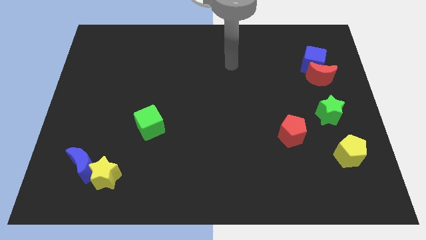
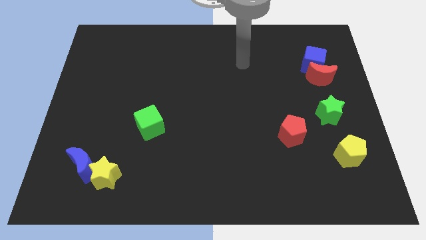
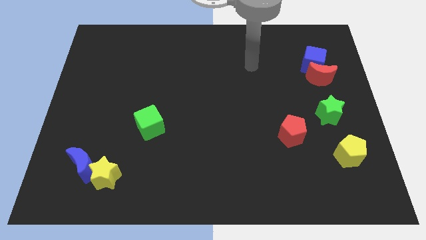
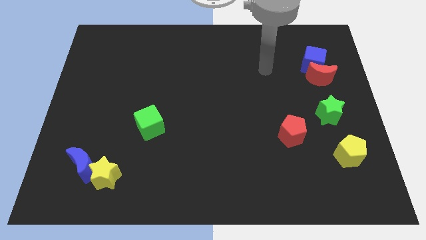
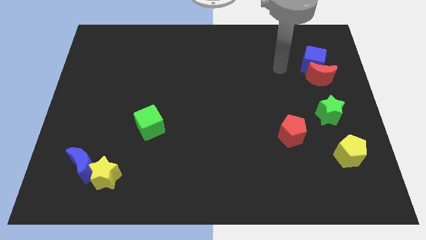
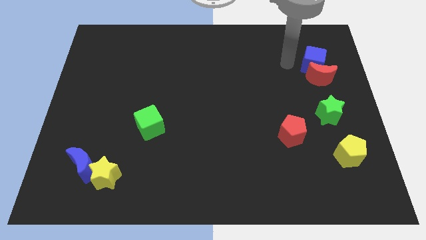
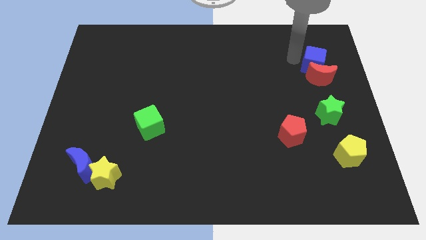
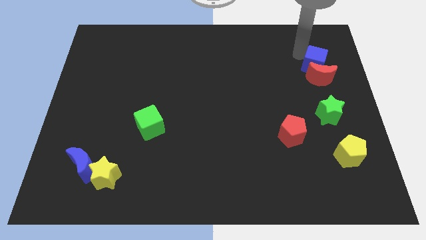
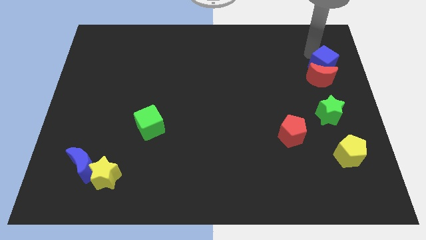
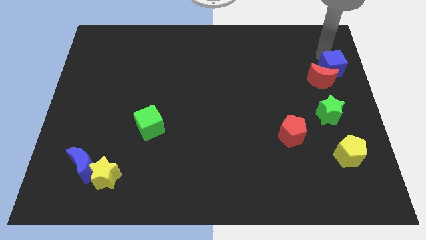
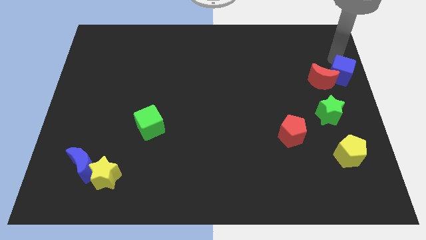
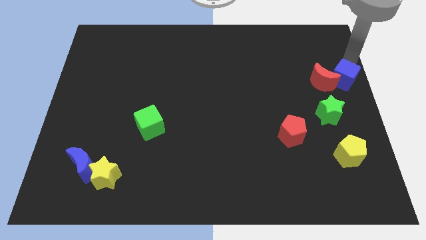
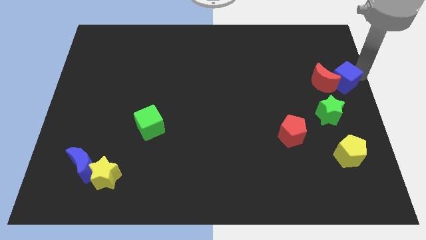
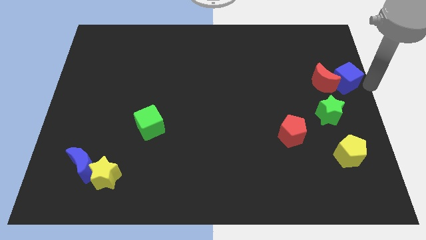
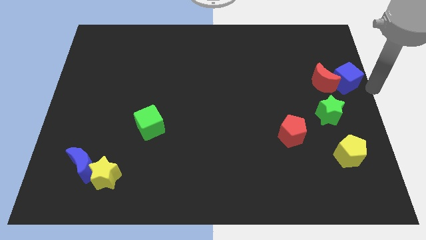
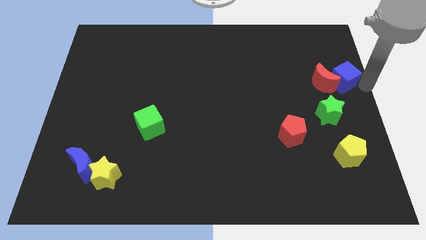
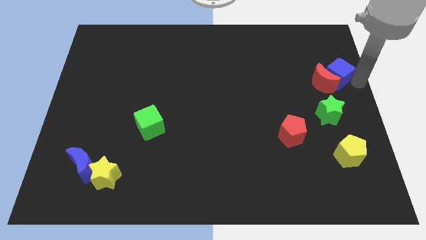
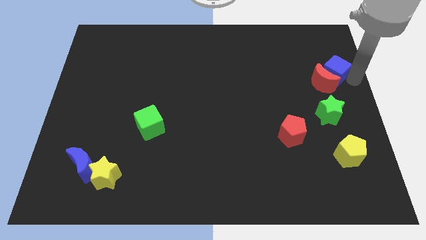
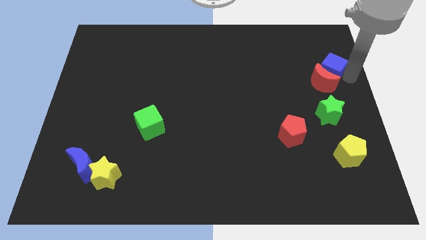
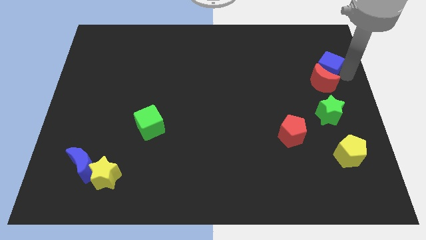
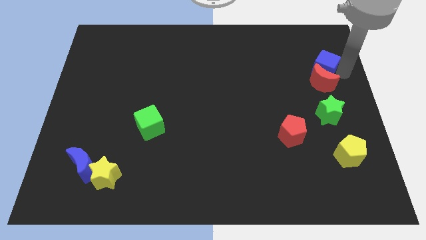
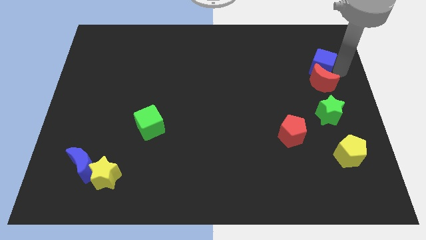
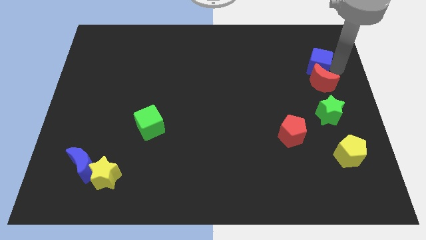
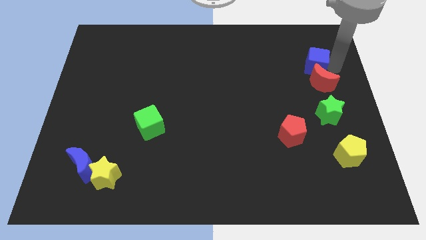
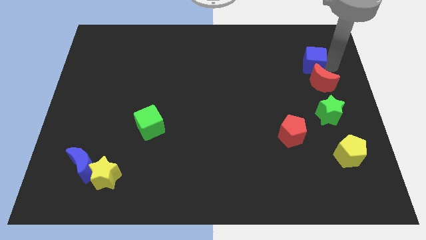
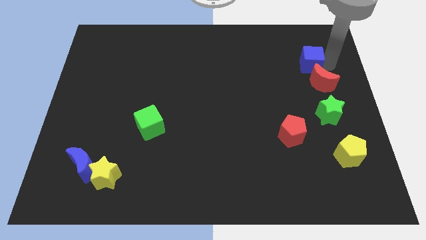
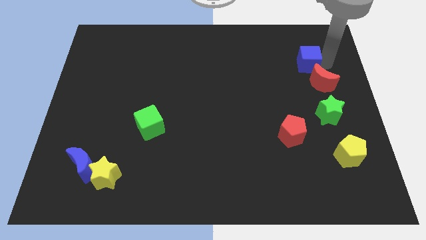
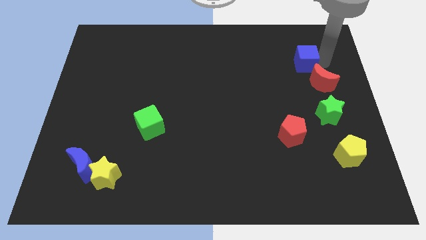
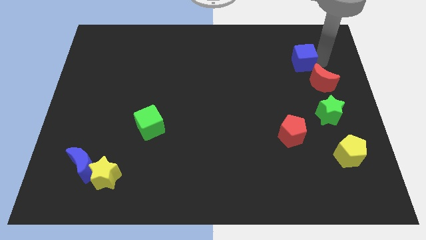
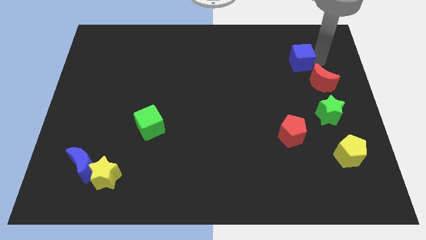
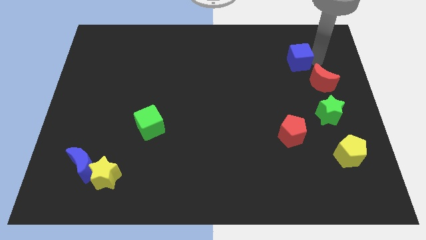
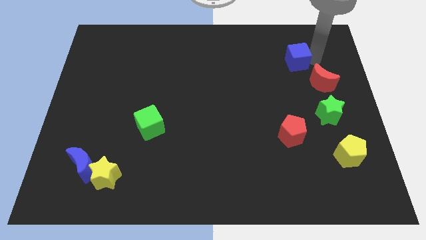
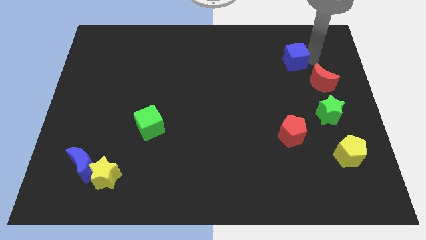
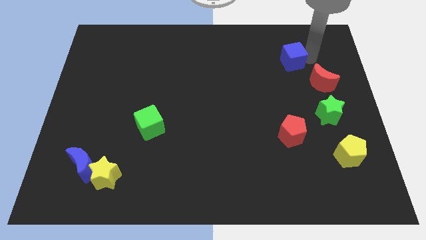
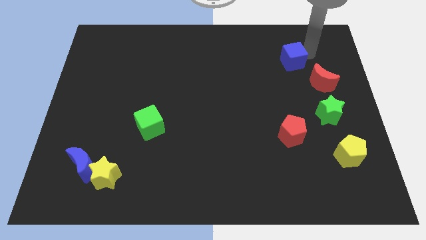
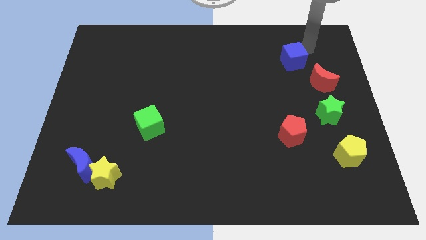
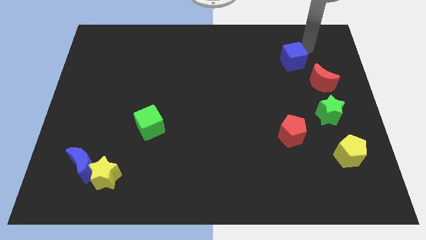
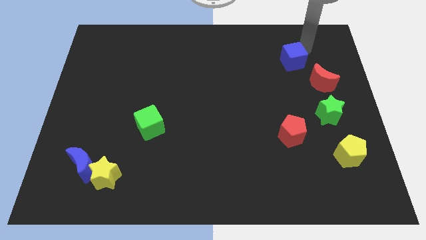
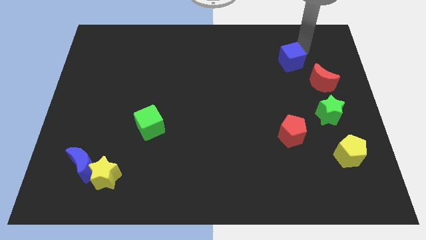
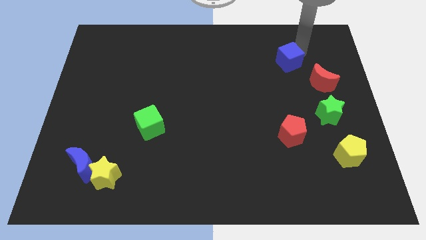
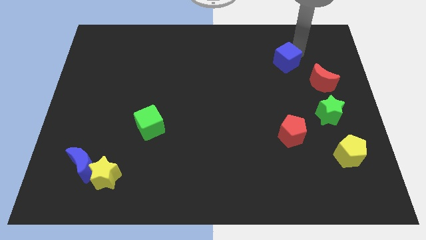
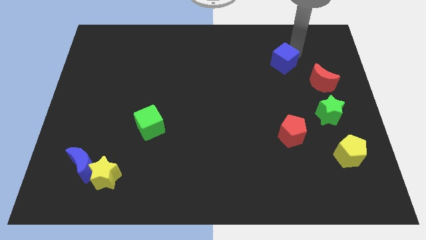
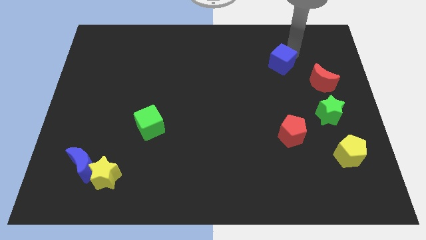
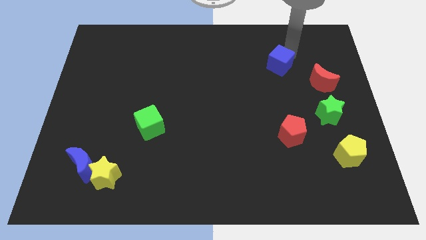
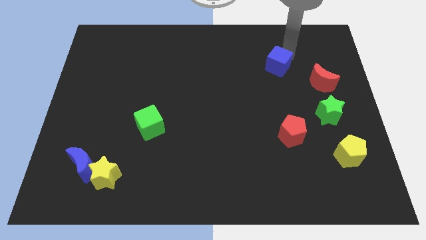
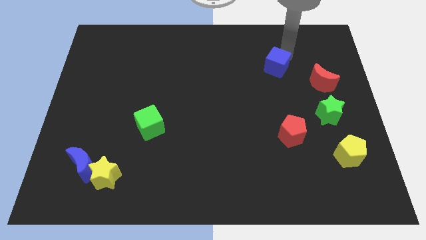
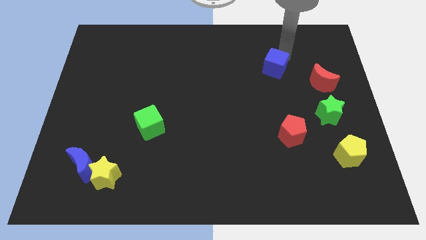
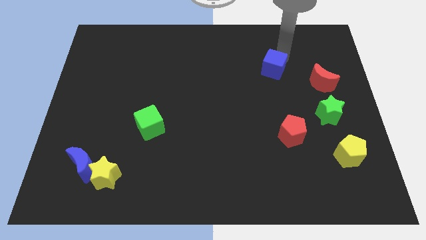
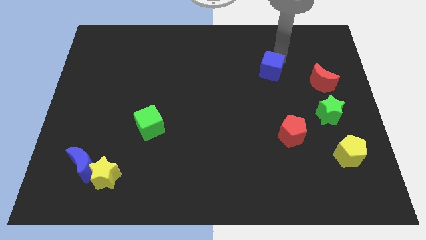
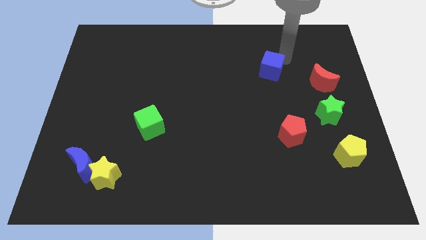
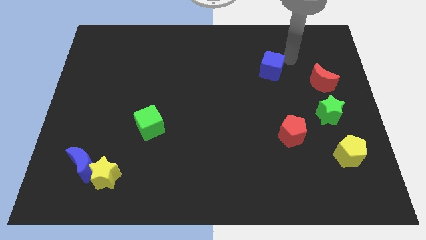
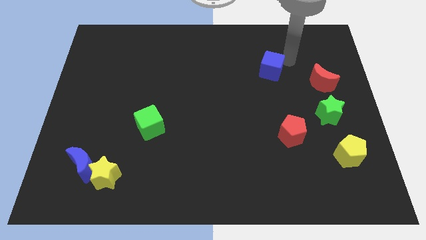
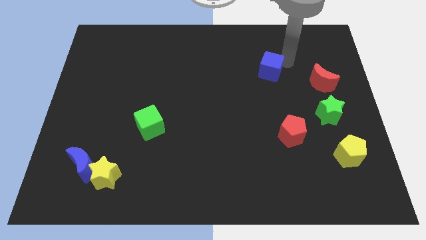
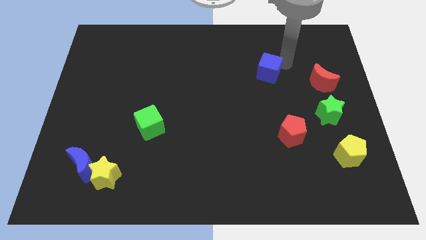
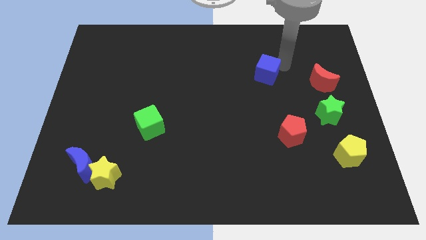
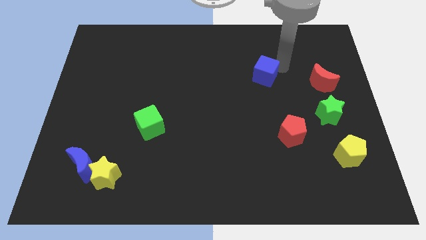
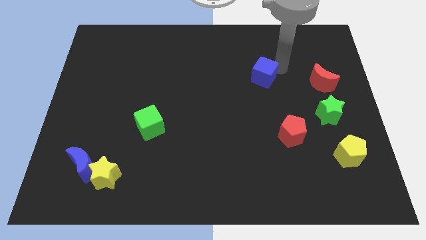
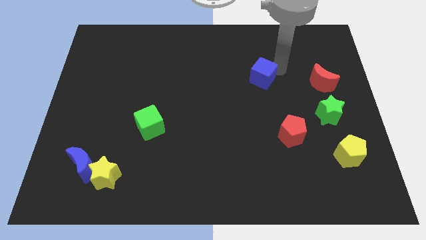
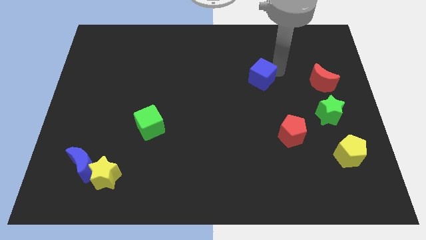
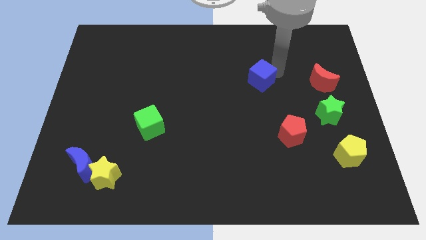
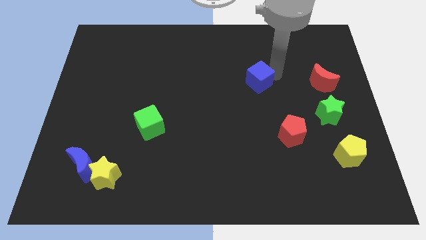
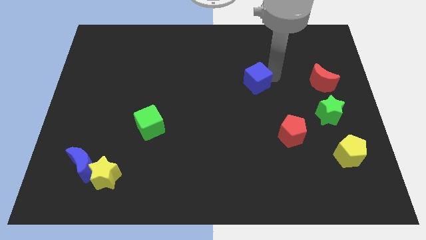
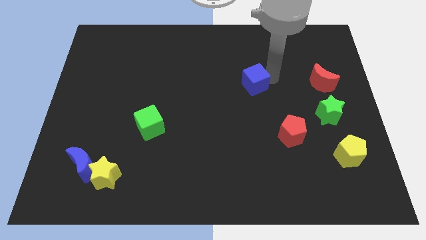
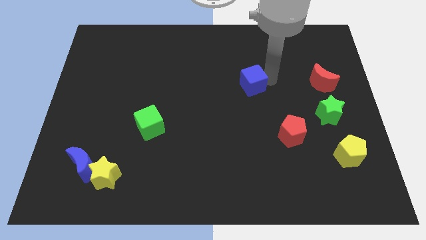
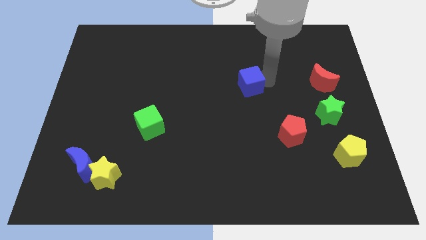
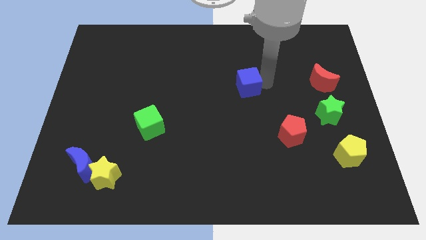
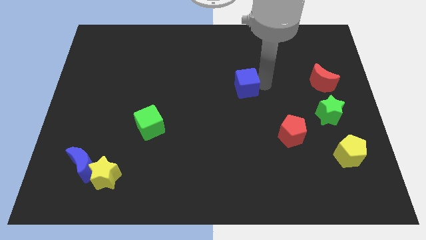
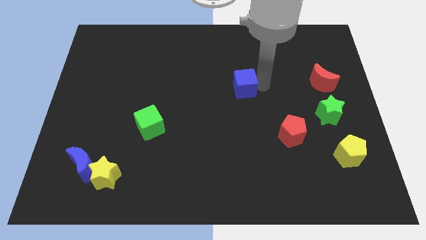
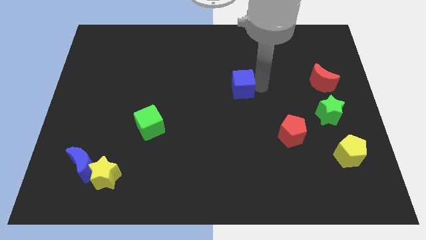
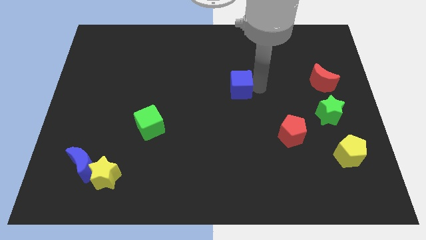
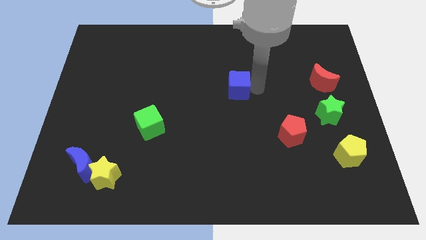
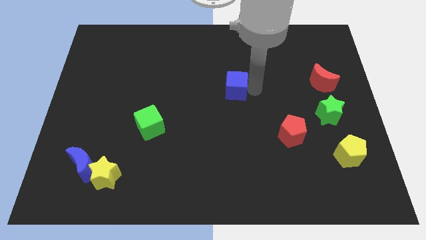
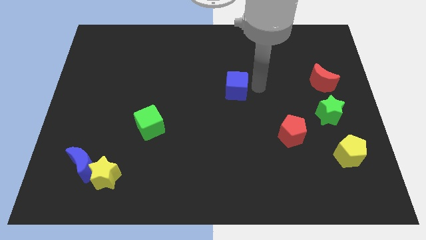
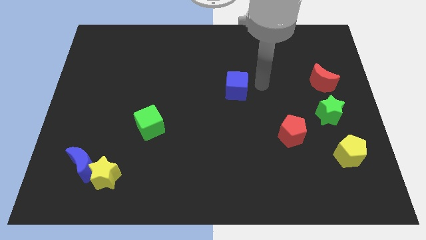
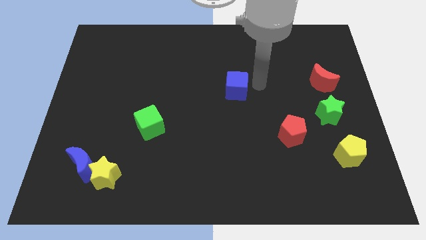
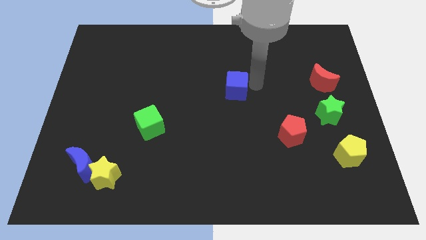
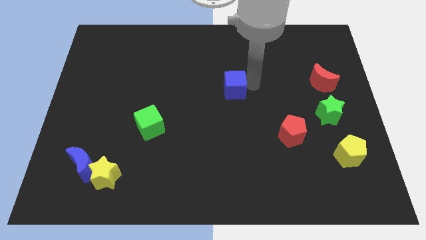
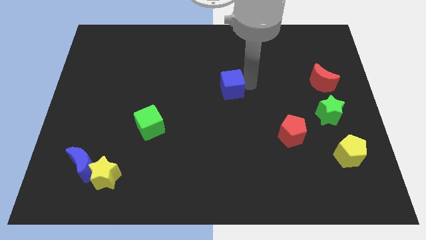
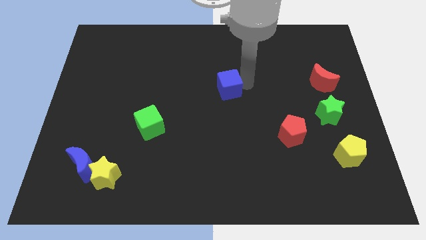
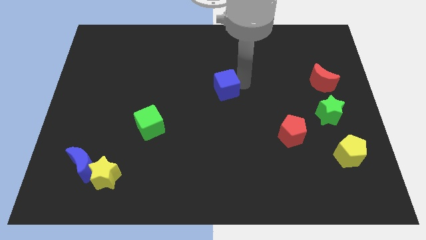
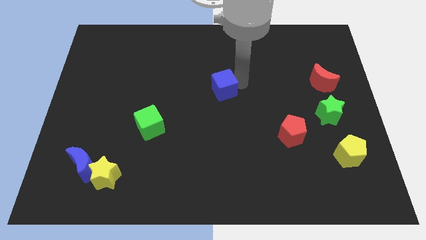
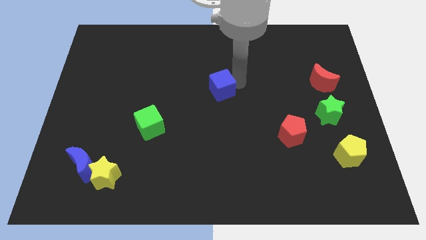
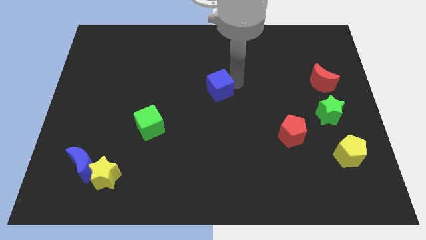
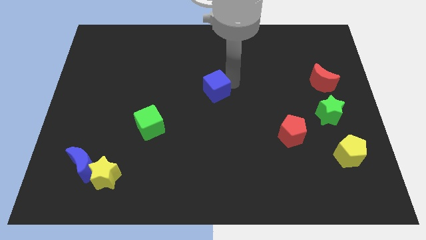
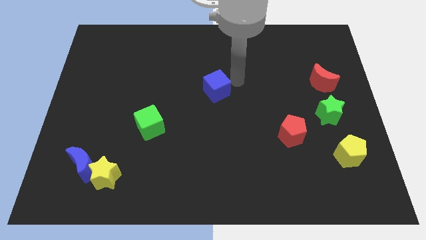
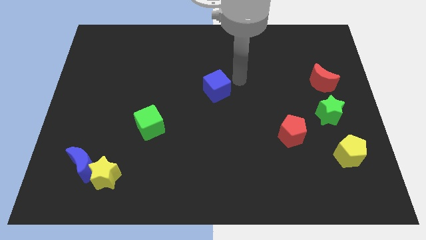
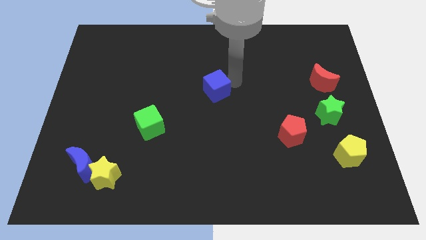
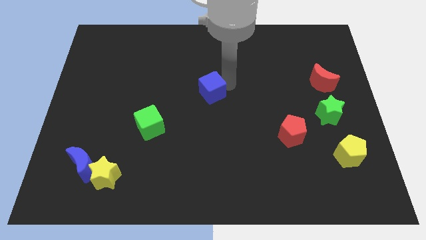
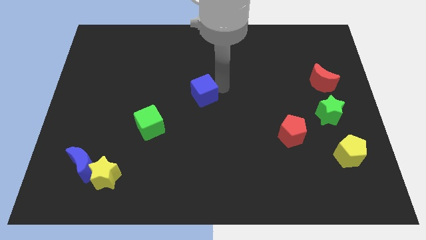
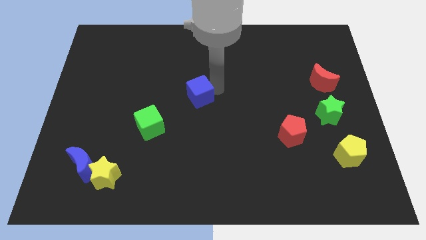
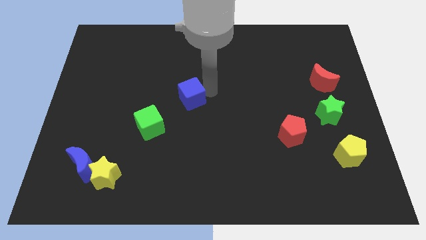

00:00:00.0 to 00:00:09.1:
push the blue cube to the top right side of the green cube
